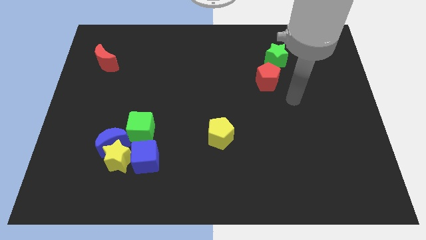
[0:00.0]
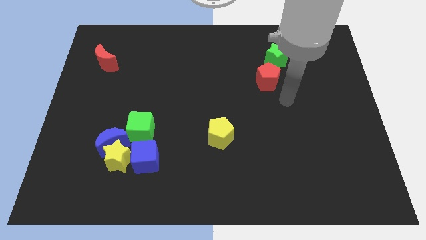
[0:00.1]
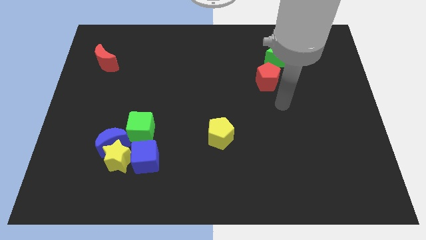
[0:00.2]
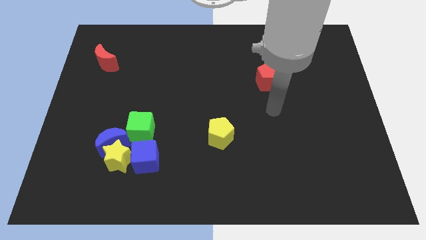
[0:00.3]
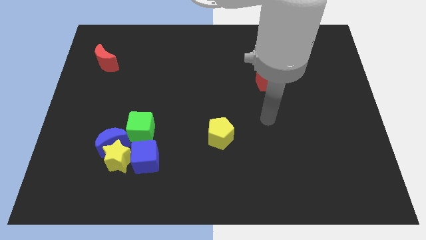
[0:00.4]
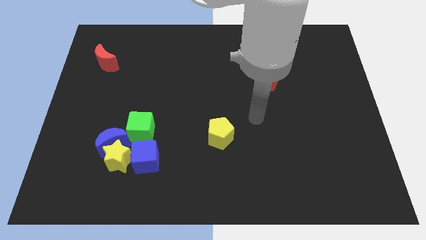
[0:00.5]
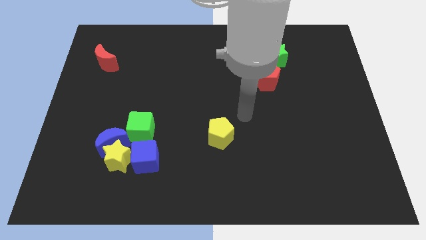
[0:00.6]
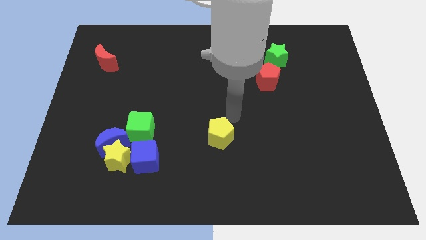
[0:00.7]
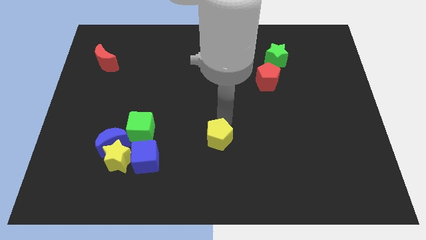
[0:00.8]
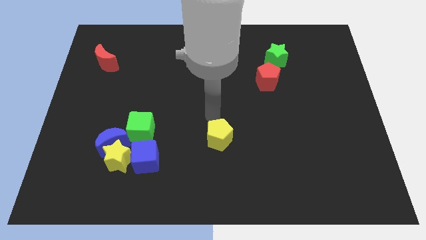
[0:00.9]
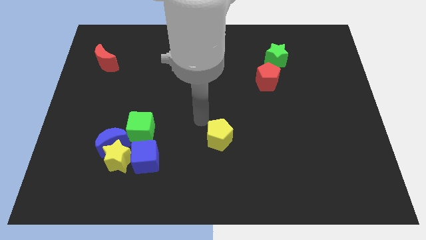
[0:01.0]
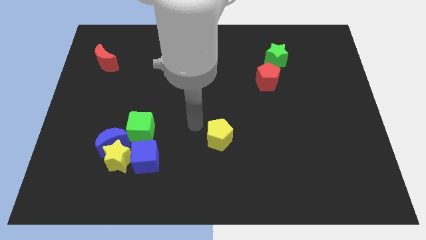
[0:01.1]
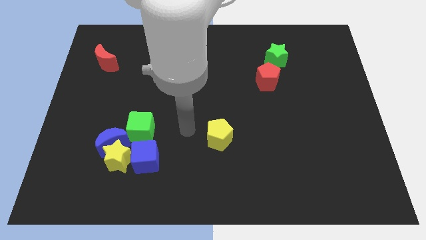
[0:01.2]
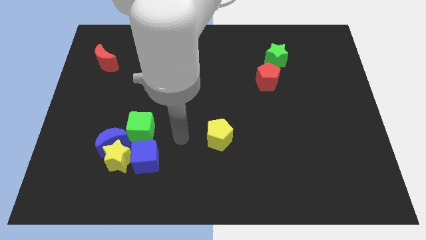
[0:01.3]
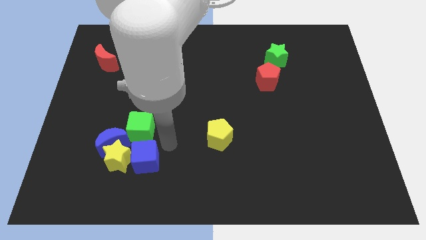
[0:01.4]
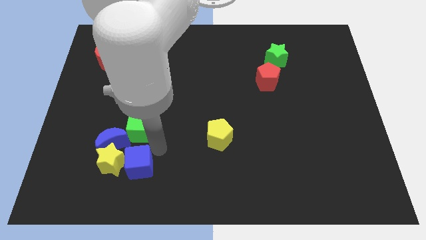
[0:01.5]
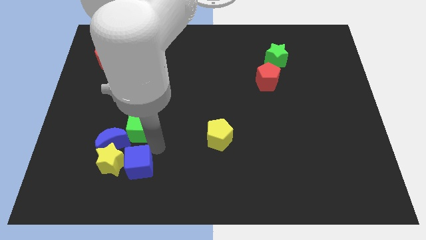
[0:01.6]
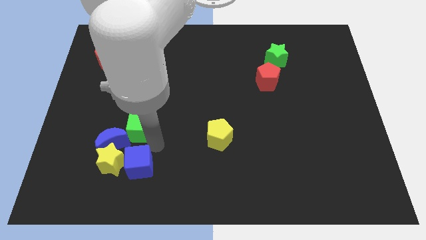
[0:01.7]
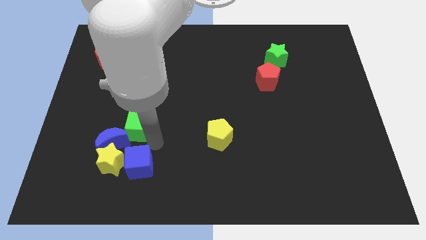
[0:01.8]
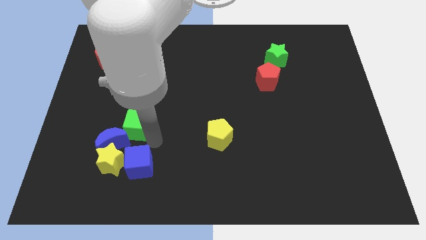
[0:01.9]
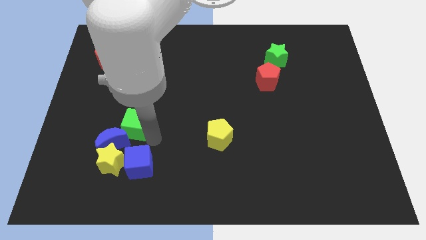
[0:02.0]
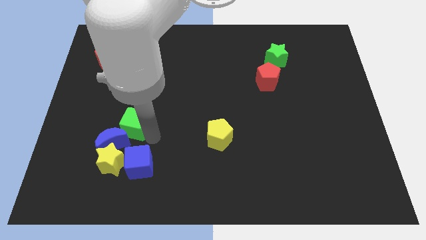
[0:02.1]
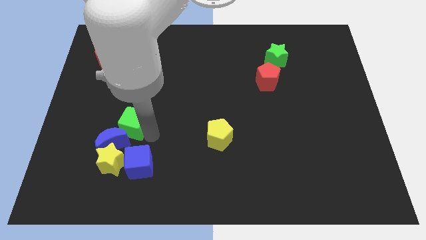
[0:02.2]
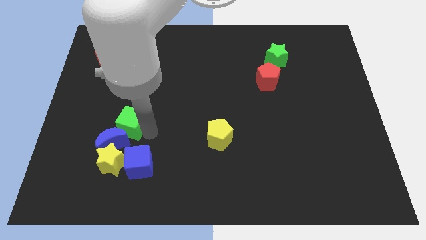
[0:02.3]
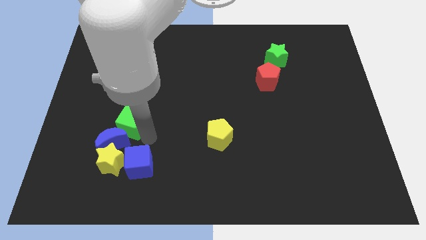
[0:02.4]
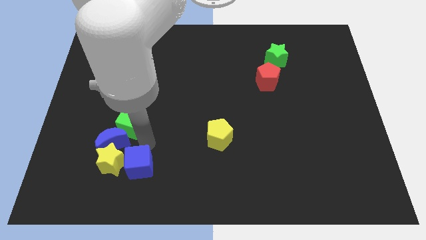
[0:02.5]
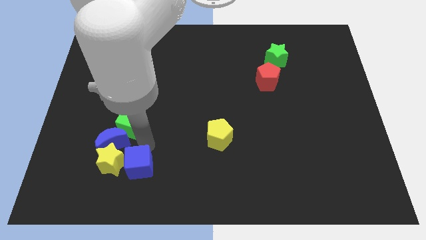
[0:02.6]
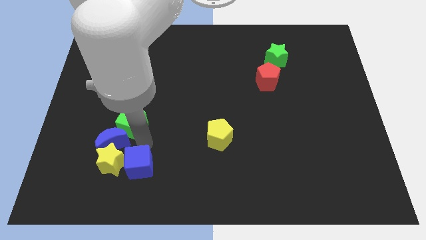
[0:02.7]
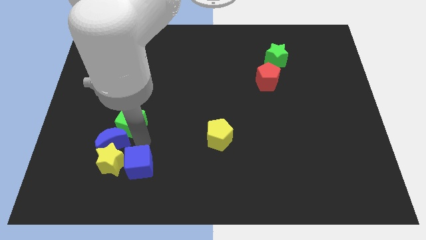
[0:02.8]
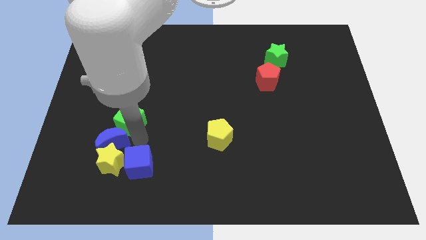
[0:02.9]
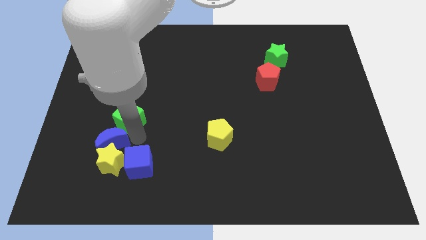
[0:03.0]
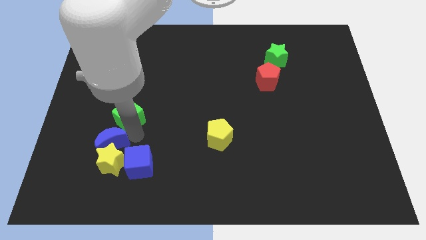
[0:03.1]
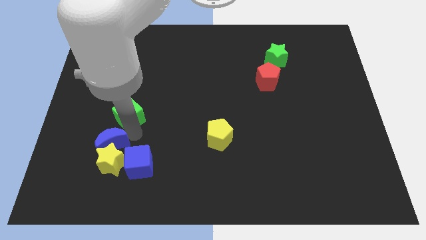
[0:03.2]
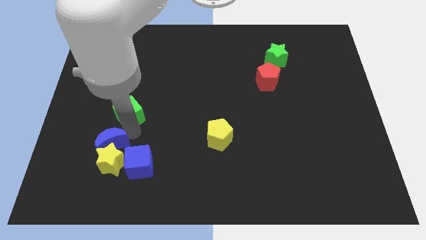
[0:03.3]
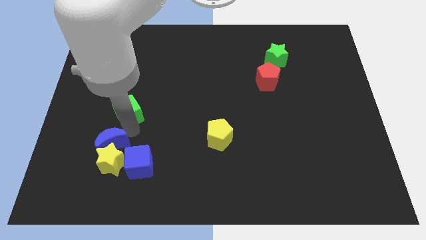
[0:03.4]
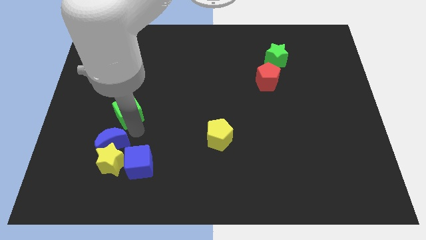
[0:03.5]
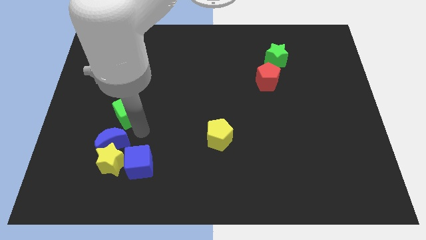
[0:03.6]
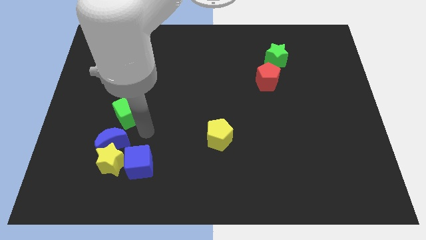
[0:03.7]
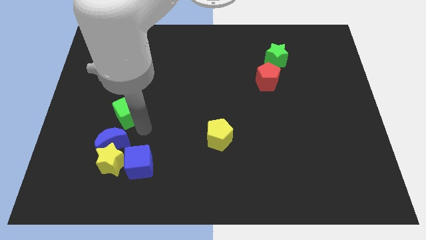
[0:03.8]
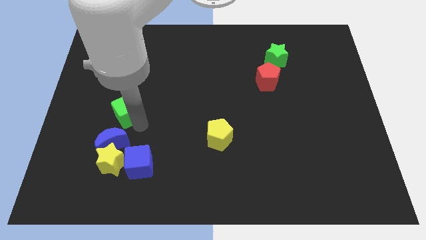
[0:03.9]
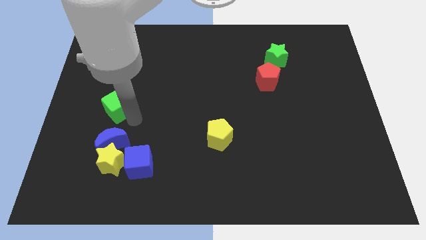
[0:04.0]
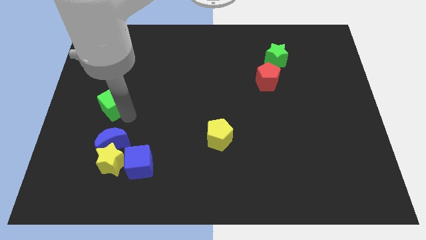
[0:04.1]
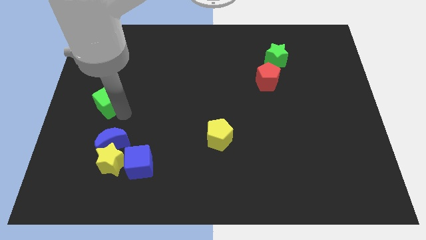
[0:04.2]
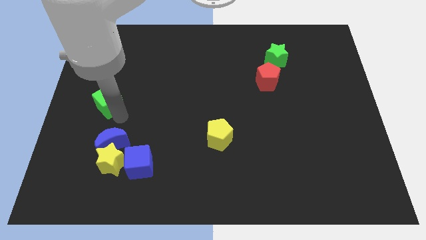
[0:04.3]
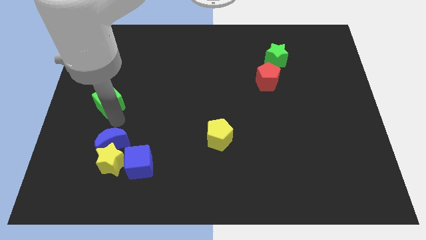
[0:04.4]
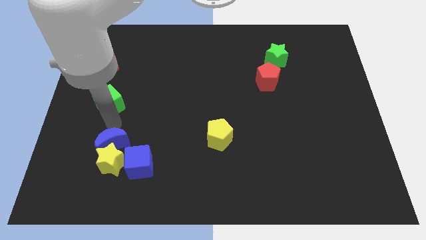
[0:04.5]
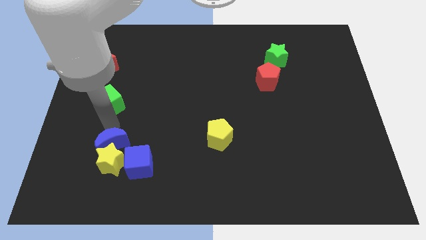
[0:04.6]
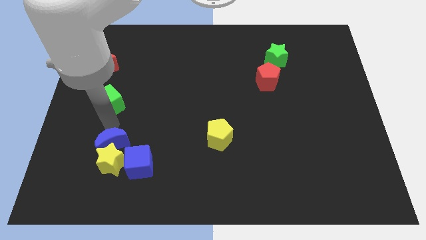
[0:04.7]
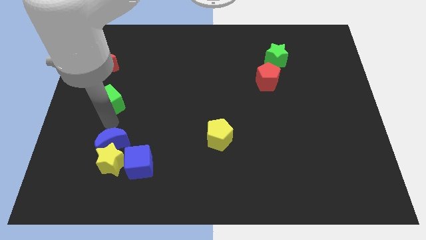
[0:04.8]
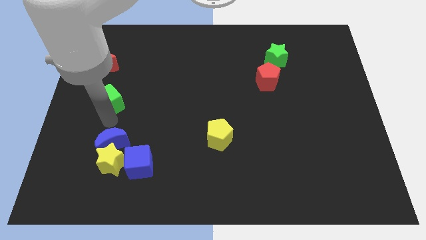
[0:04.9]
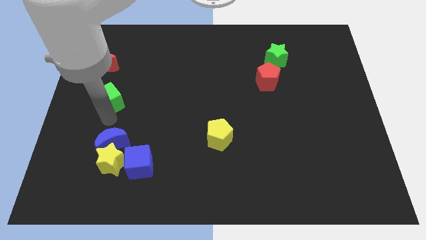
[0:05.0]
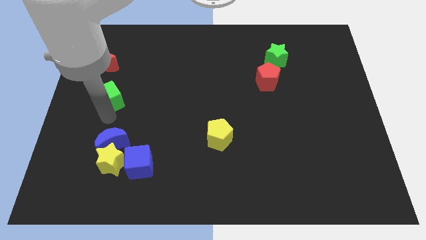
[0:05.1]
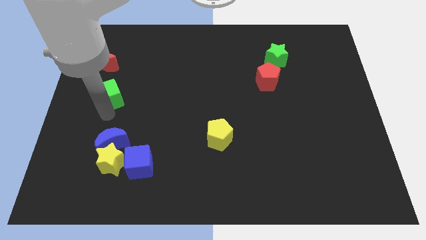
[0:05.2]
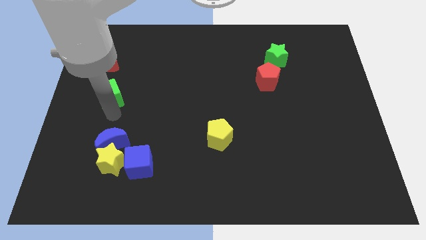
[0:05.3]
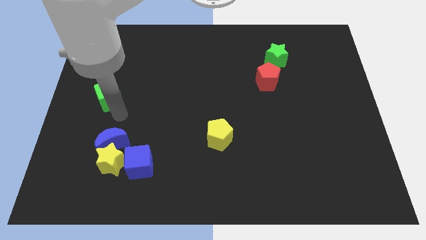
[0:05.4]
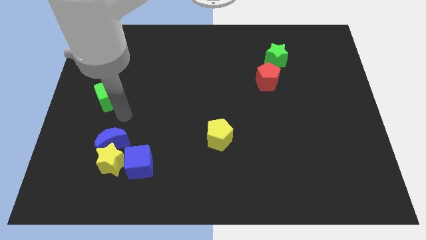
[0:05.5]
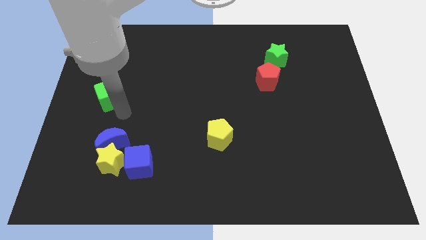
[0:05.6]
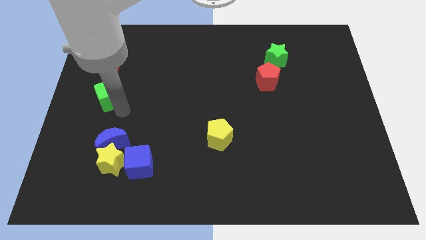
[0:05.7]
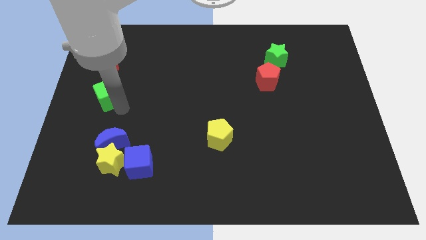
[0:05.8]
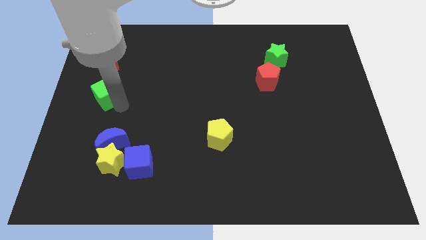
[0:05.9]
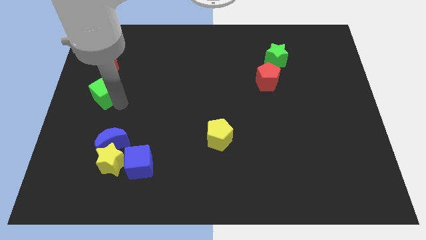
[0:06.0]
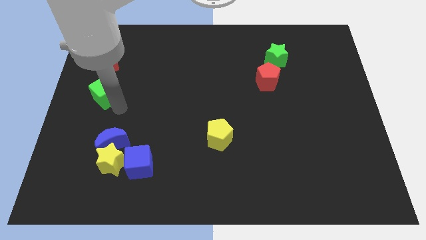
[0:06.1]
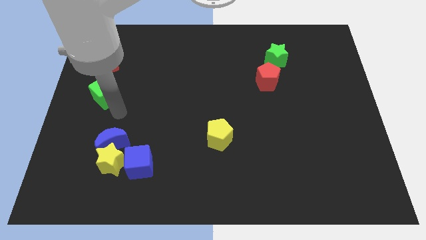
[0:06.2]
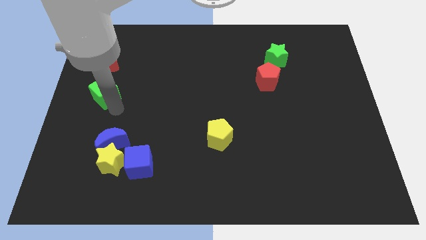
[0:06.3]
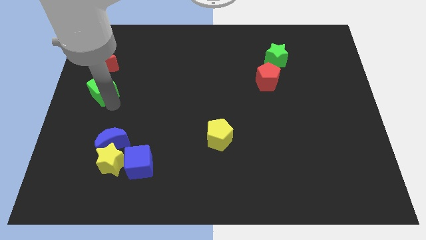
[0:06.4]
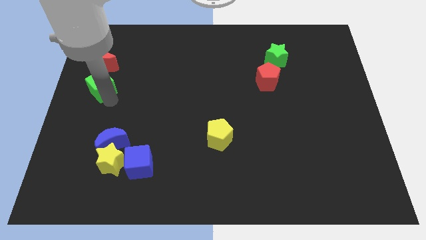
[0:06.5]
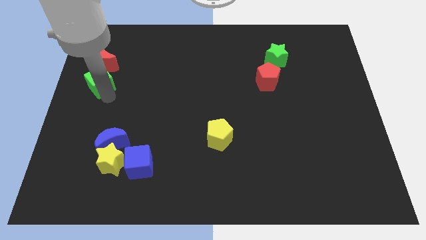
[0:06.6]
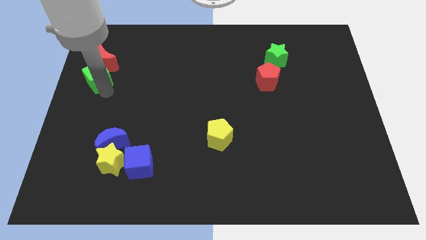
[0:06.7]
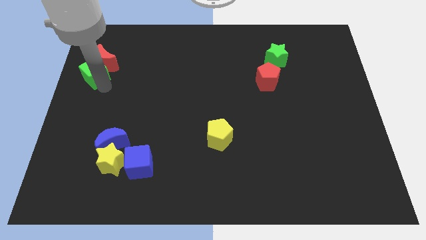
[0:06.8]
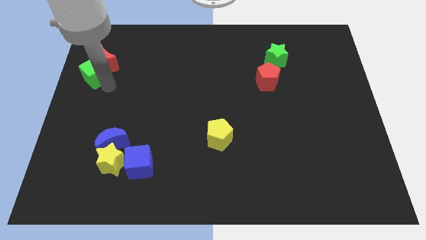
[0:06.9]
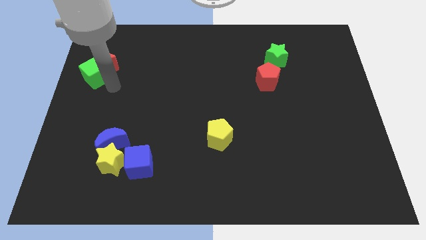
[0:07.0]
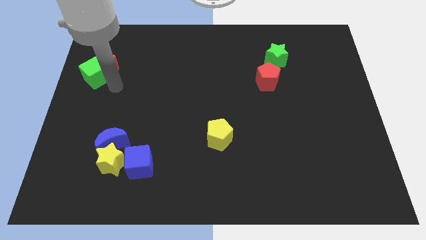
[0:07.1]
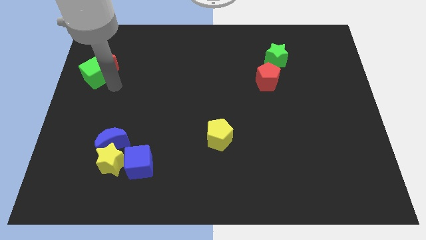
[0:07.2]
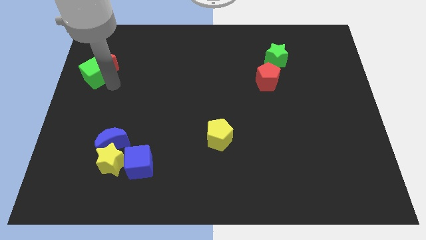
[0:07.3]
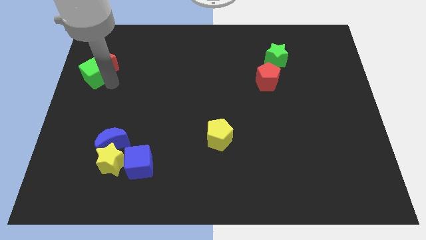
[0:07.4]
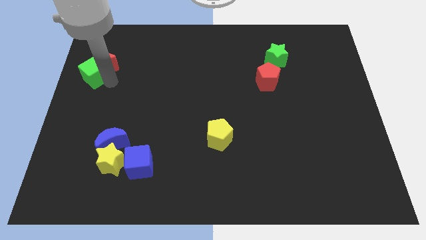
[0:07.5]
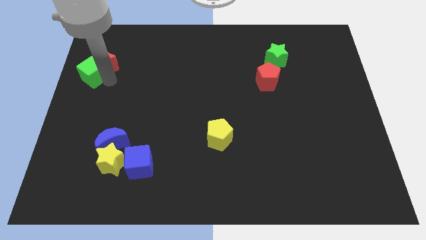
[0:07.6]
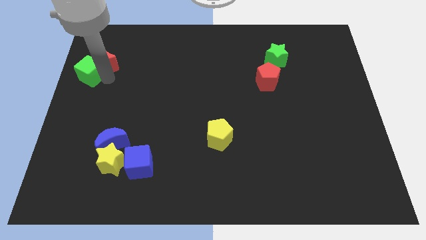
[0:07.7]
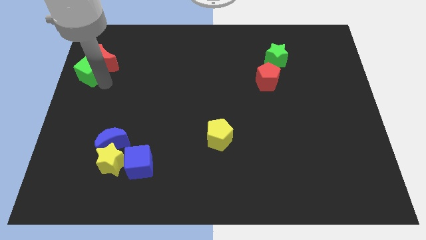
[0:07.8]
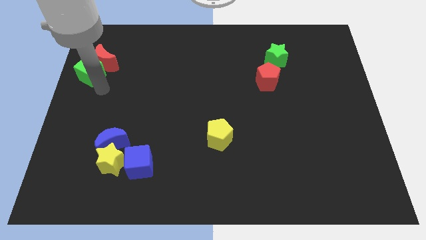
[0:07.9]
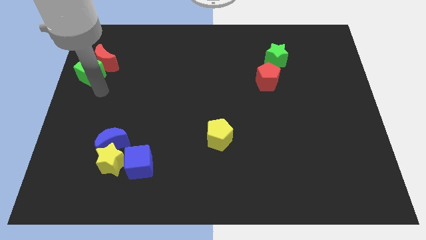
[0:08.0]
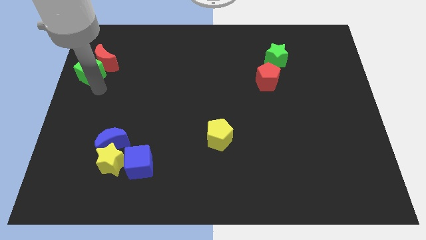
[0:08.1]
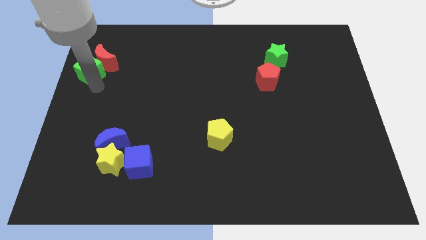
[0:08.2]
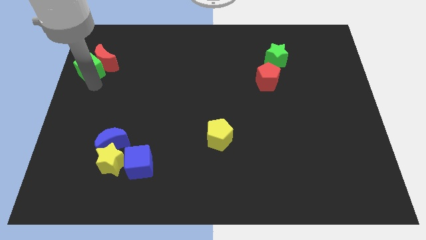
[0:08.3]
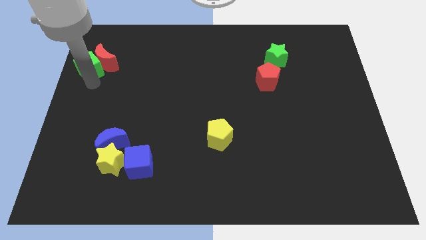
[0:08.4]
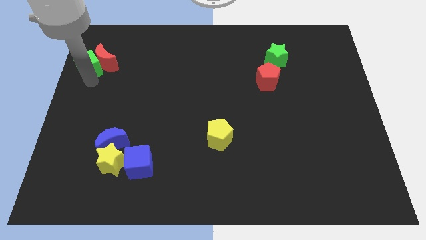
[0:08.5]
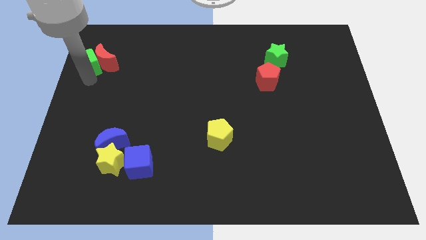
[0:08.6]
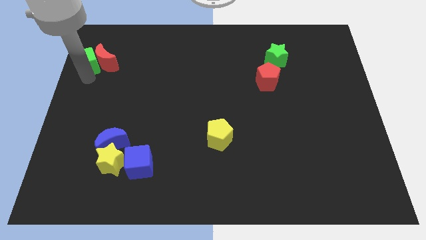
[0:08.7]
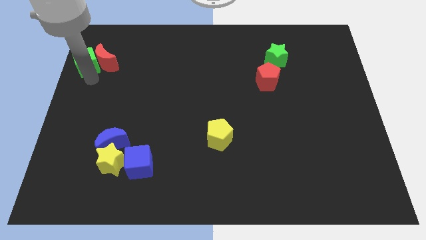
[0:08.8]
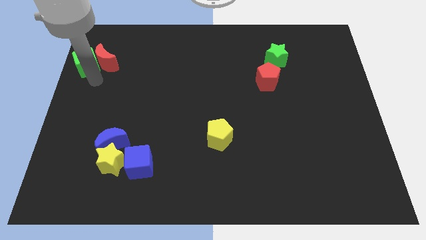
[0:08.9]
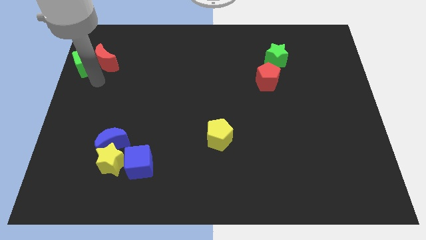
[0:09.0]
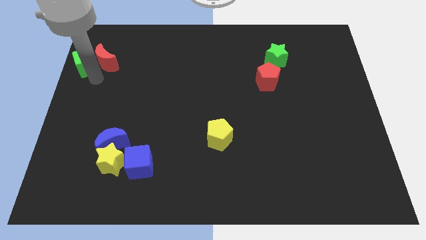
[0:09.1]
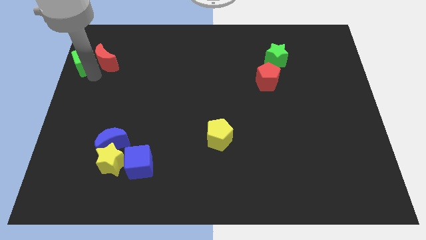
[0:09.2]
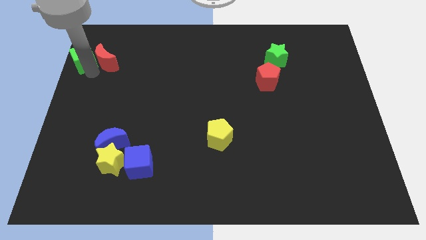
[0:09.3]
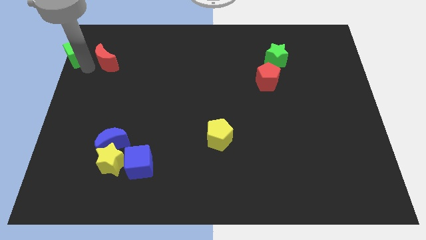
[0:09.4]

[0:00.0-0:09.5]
move the green cube to the upper left corner
